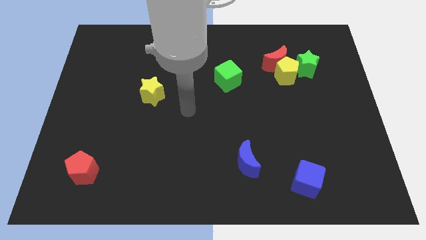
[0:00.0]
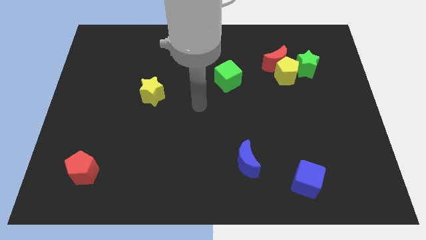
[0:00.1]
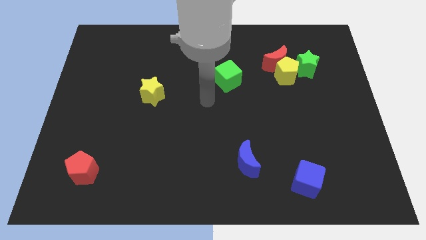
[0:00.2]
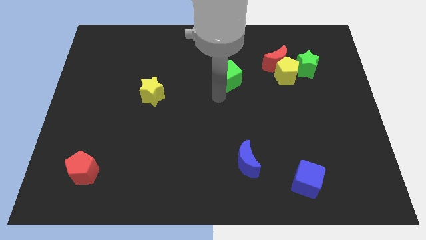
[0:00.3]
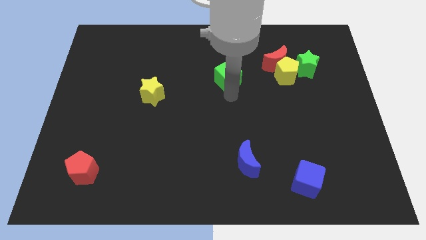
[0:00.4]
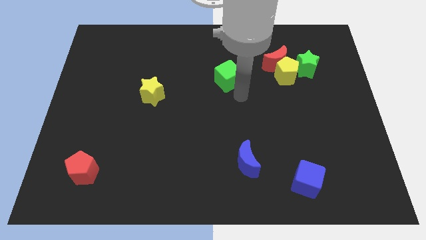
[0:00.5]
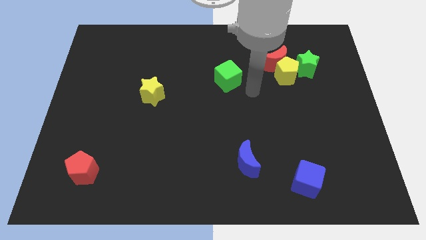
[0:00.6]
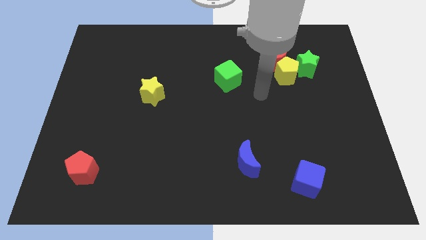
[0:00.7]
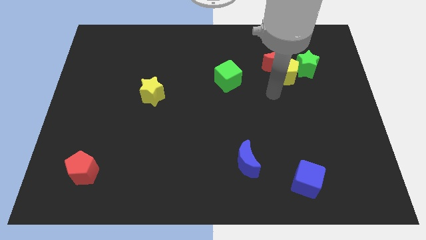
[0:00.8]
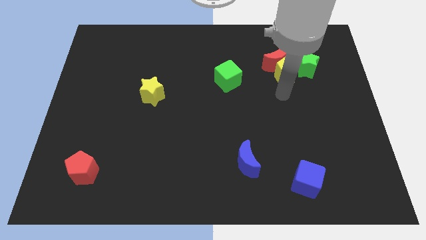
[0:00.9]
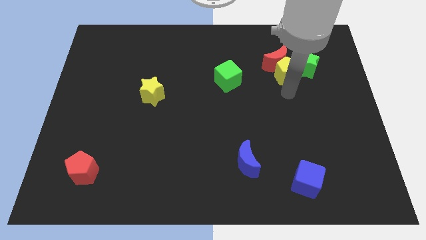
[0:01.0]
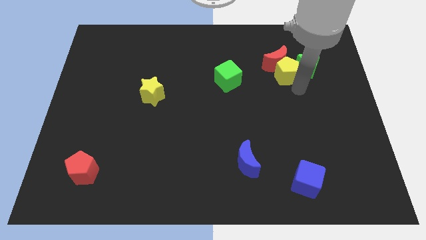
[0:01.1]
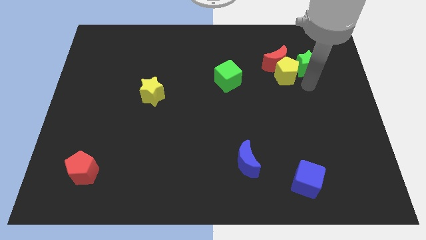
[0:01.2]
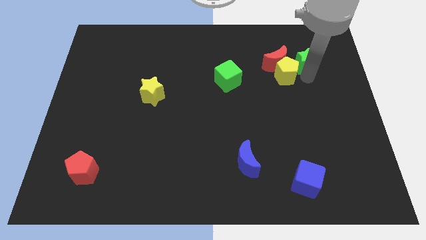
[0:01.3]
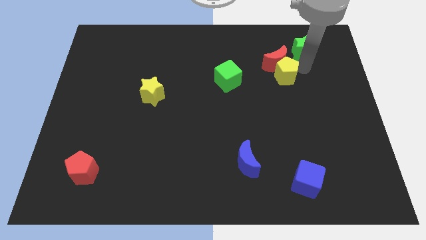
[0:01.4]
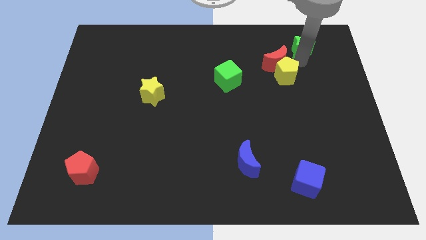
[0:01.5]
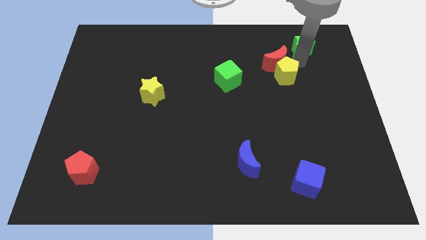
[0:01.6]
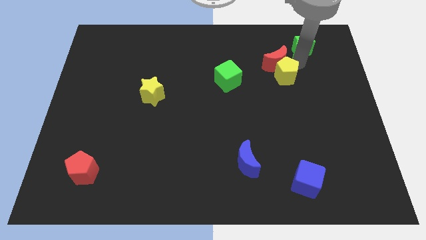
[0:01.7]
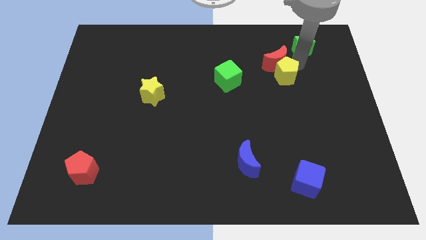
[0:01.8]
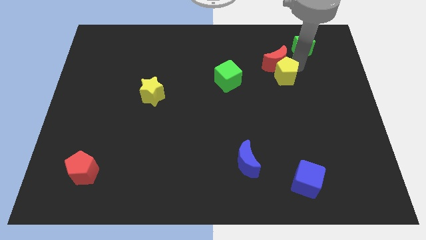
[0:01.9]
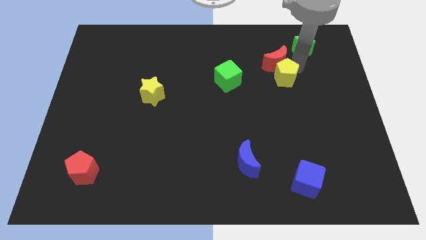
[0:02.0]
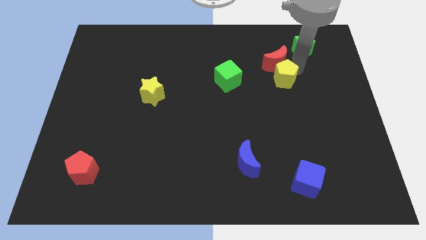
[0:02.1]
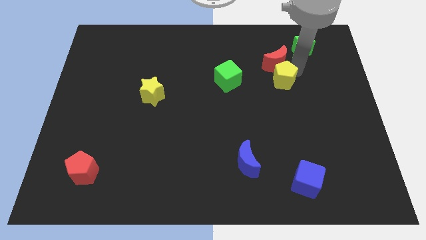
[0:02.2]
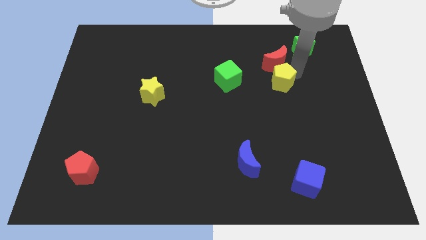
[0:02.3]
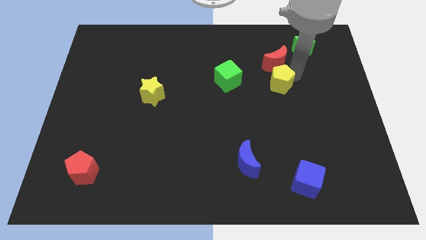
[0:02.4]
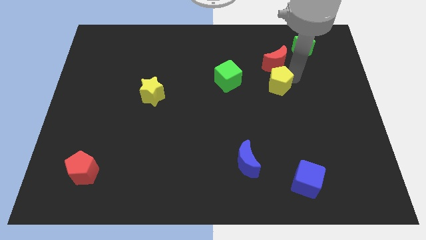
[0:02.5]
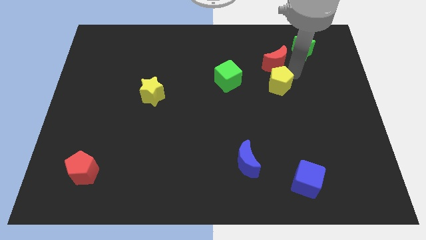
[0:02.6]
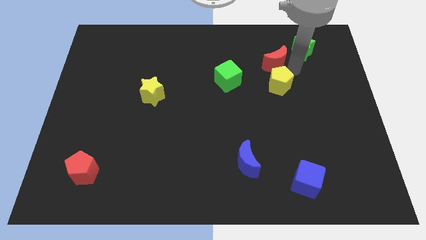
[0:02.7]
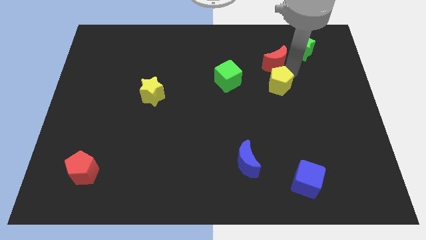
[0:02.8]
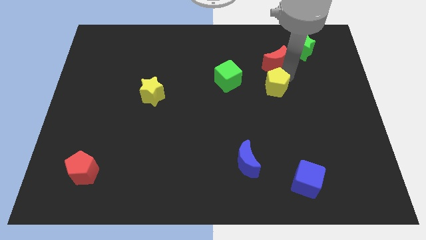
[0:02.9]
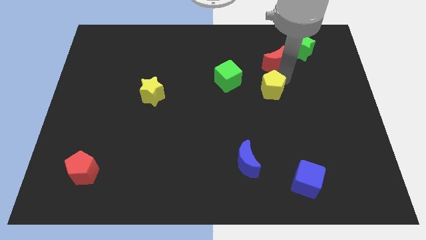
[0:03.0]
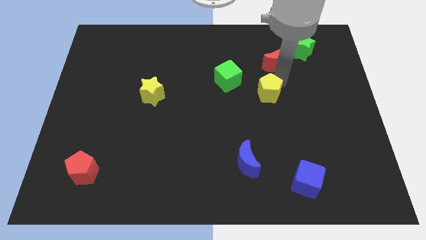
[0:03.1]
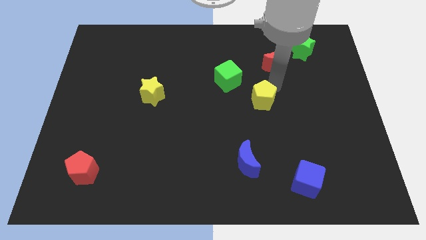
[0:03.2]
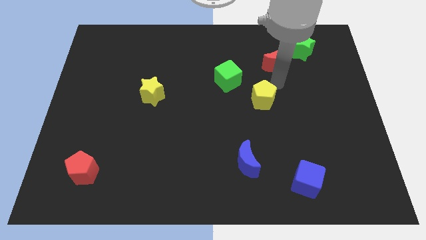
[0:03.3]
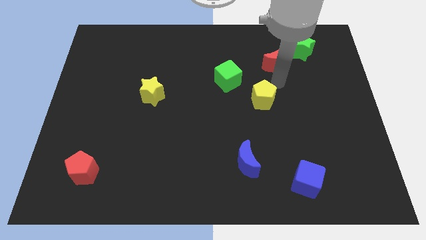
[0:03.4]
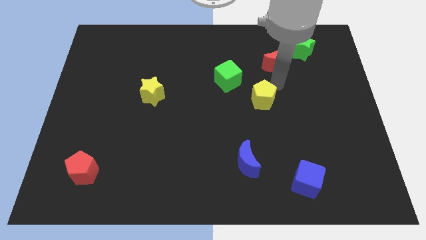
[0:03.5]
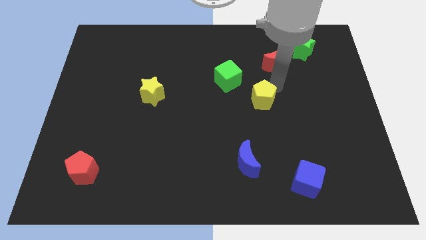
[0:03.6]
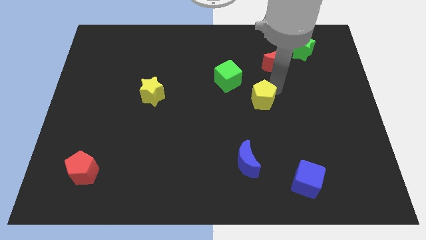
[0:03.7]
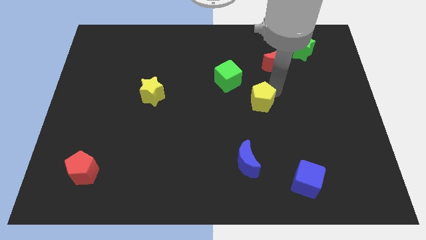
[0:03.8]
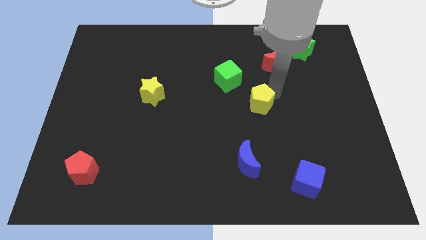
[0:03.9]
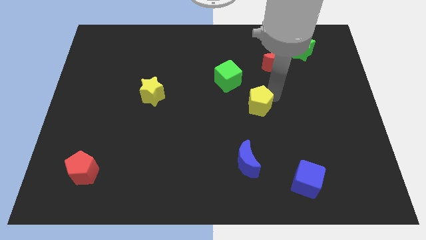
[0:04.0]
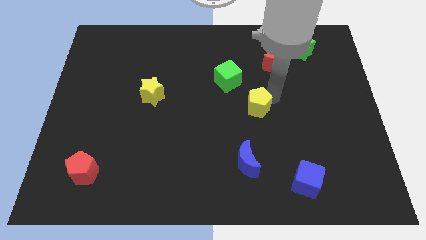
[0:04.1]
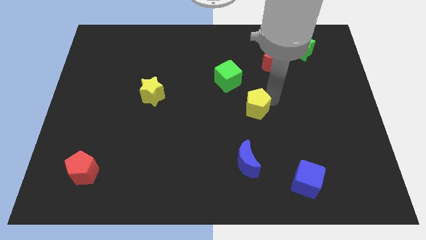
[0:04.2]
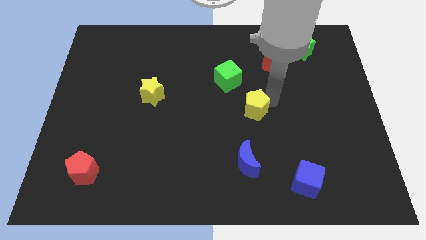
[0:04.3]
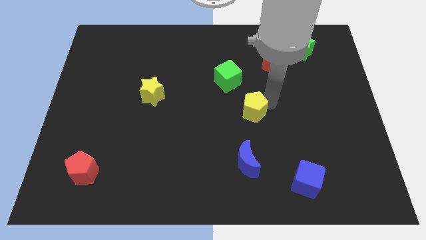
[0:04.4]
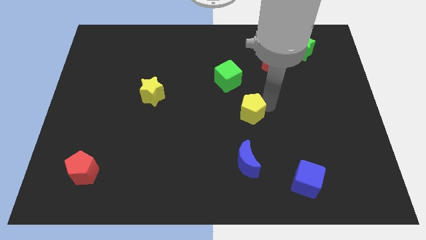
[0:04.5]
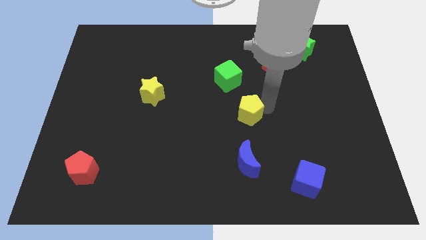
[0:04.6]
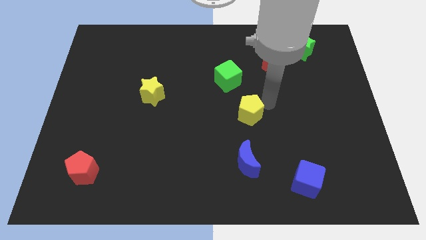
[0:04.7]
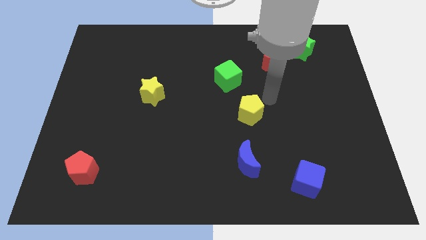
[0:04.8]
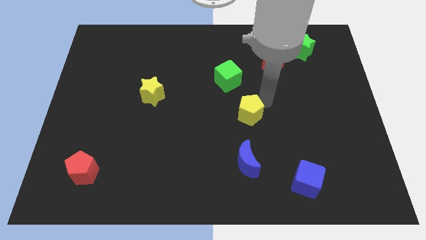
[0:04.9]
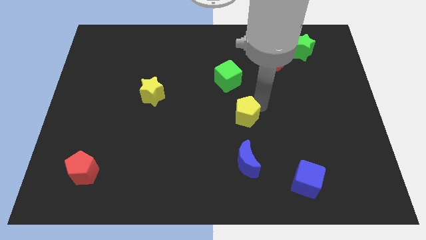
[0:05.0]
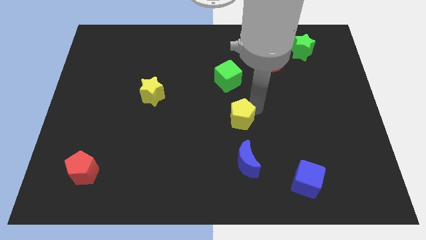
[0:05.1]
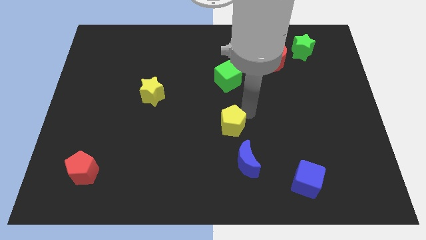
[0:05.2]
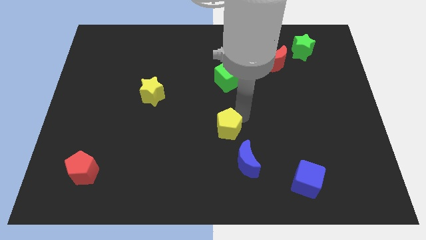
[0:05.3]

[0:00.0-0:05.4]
move the yellow pentagon to the top left side of the blue moon

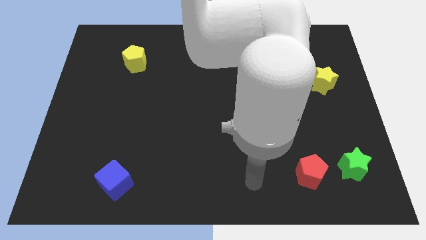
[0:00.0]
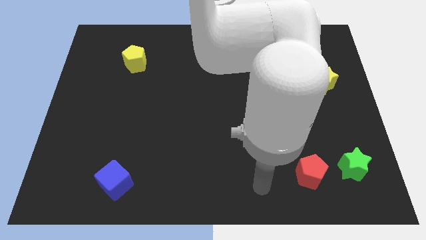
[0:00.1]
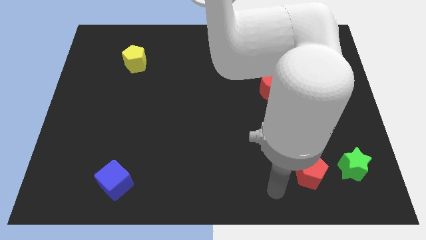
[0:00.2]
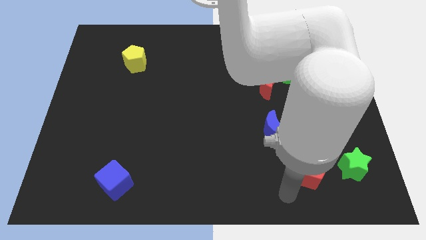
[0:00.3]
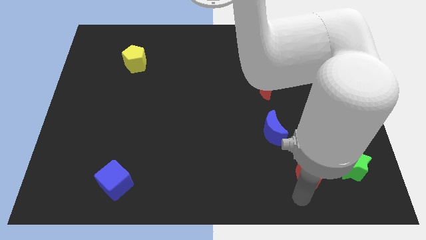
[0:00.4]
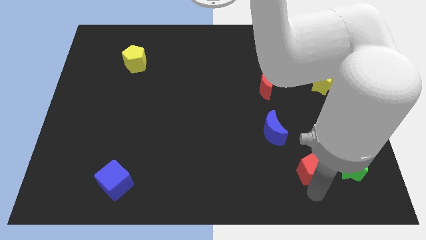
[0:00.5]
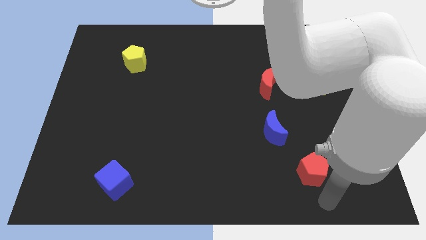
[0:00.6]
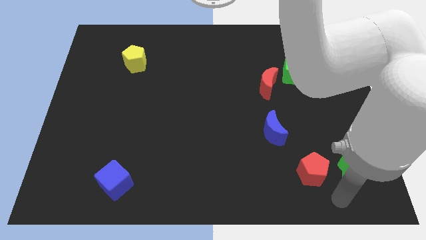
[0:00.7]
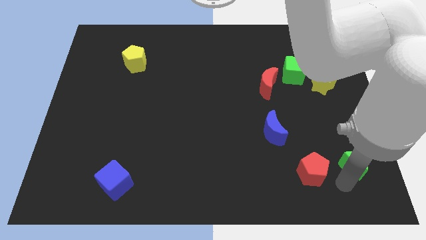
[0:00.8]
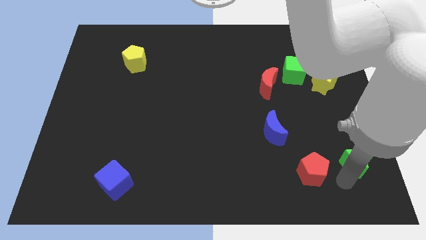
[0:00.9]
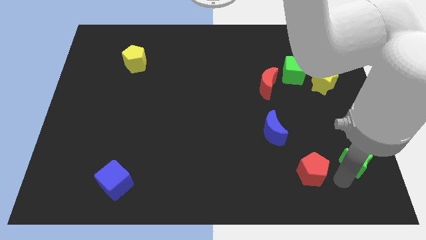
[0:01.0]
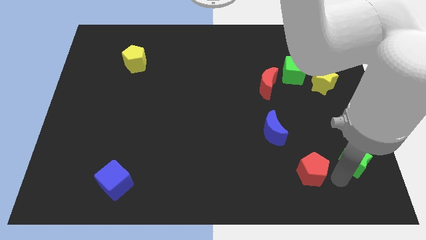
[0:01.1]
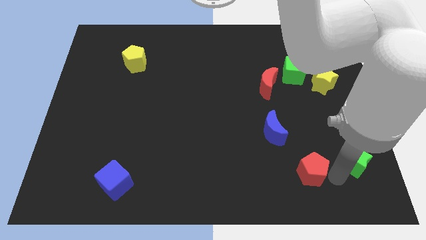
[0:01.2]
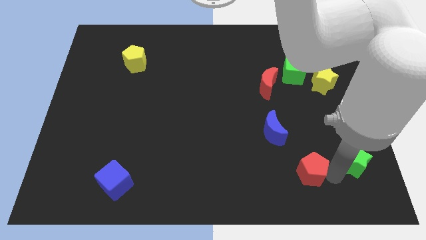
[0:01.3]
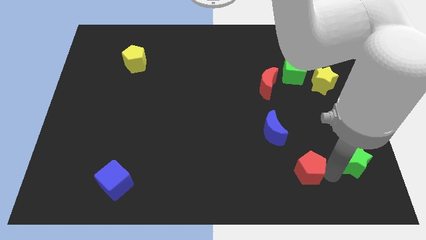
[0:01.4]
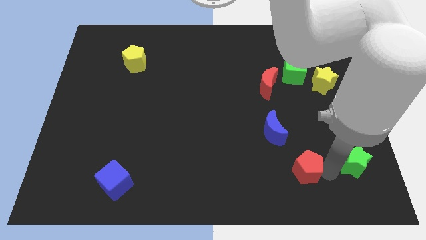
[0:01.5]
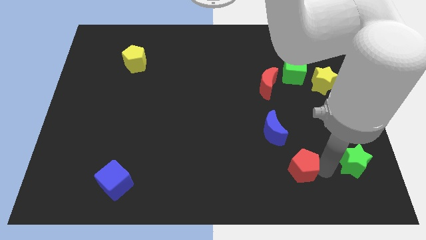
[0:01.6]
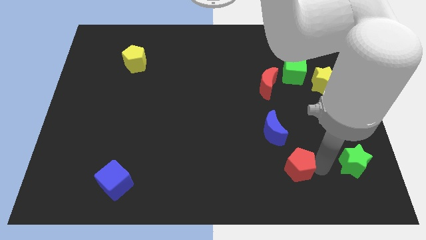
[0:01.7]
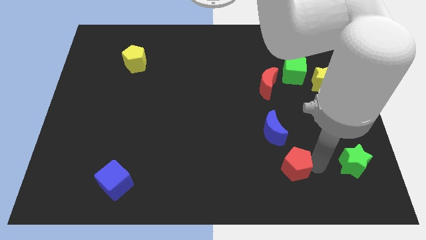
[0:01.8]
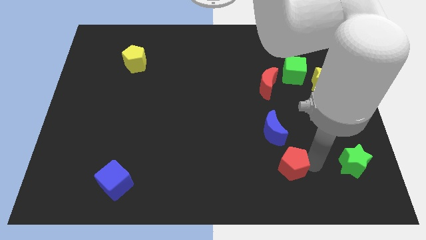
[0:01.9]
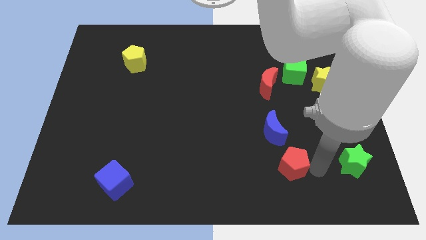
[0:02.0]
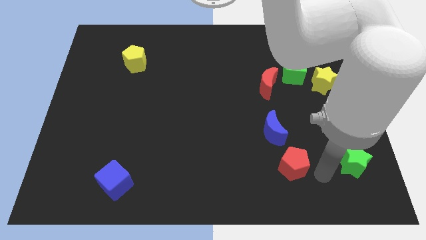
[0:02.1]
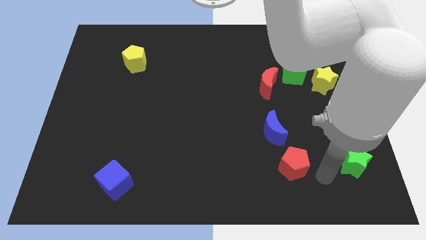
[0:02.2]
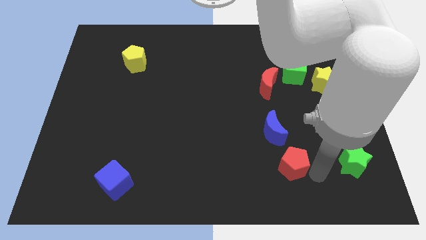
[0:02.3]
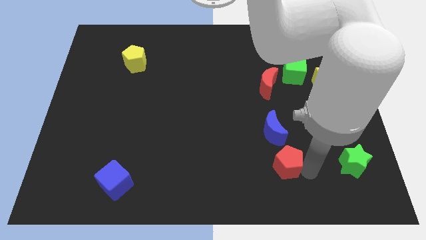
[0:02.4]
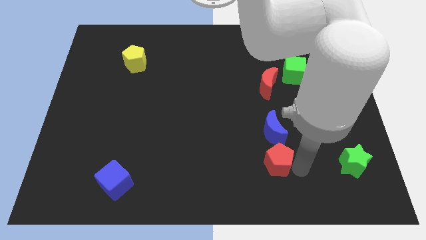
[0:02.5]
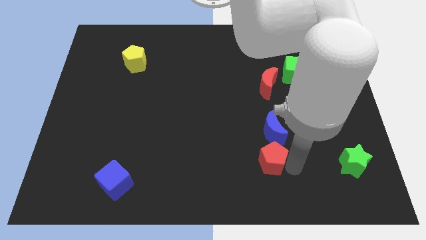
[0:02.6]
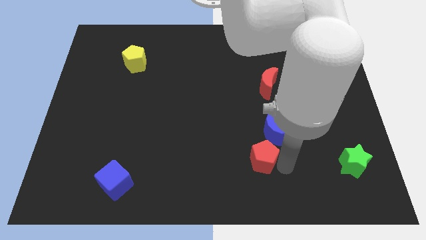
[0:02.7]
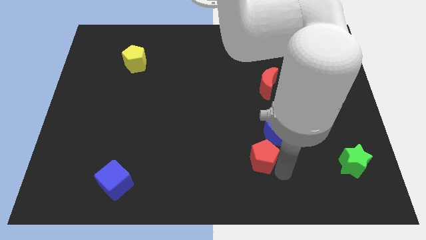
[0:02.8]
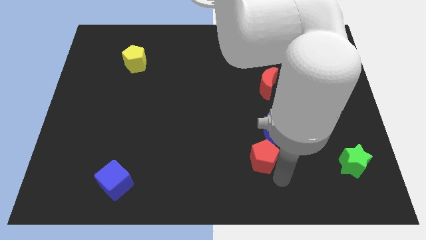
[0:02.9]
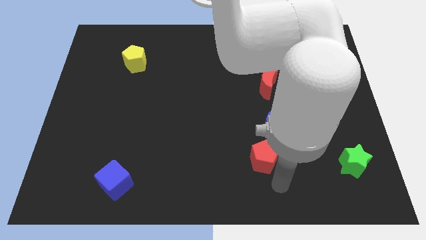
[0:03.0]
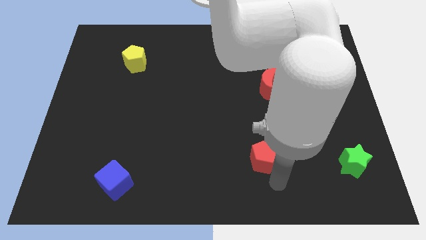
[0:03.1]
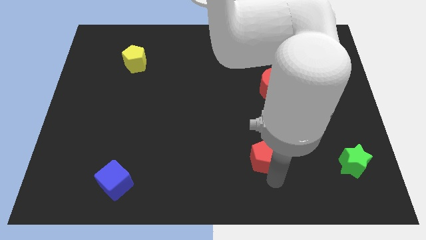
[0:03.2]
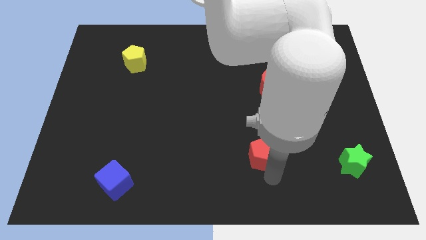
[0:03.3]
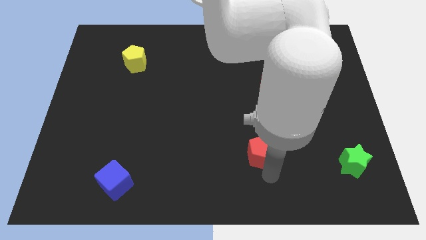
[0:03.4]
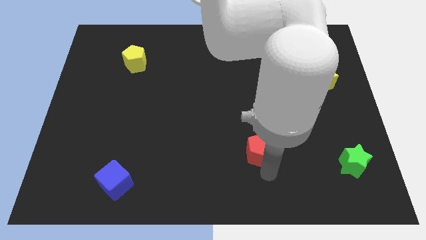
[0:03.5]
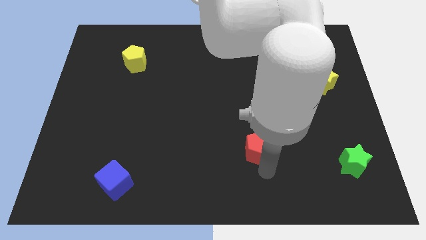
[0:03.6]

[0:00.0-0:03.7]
move the red pentagon to the left side of the blue moon
